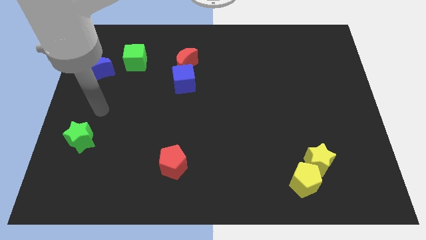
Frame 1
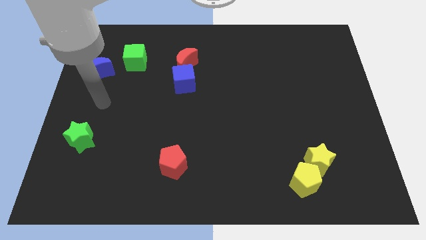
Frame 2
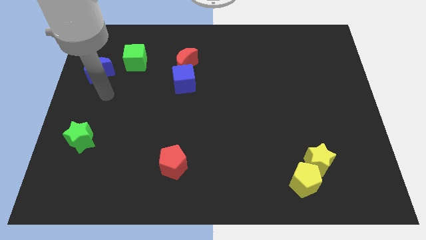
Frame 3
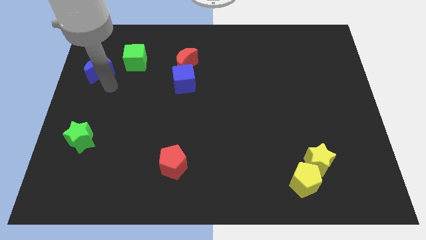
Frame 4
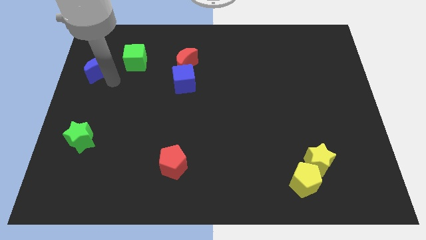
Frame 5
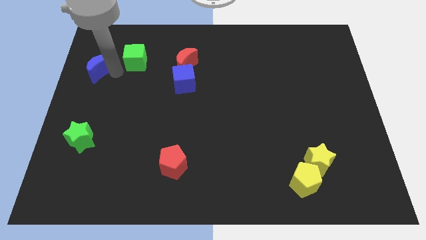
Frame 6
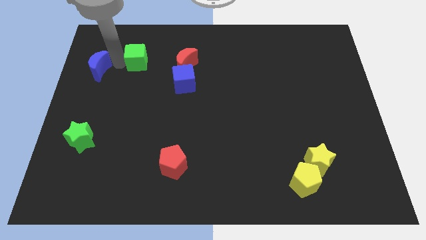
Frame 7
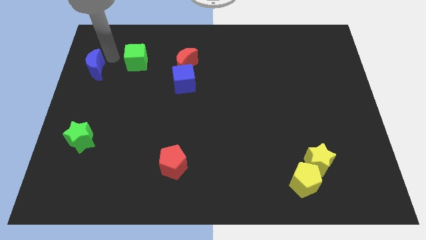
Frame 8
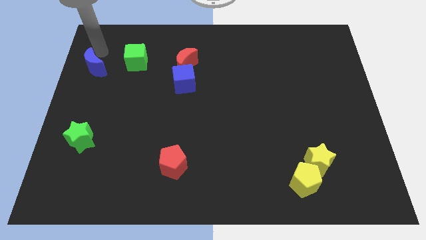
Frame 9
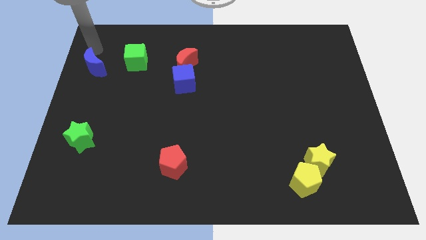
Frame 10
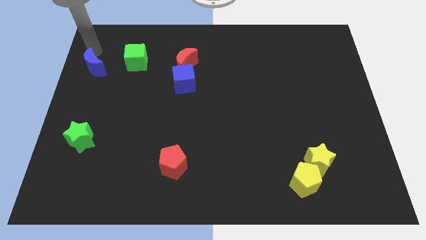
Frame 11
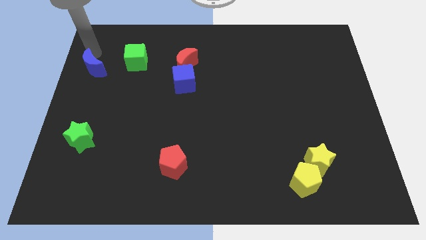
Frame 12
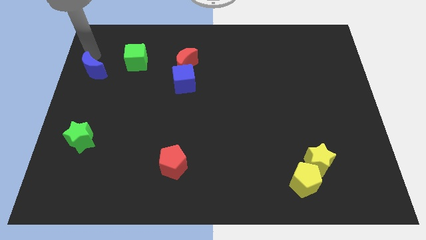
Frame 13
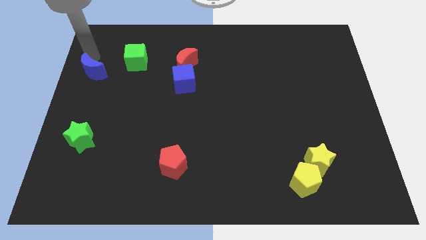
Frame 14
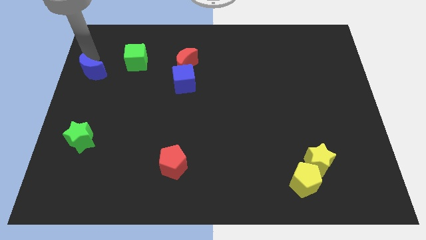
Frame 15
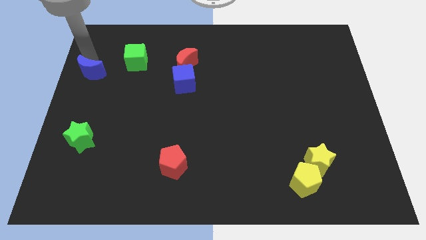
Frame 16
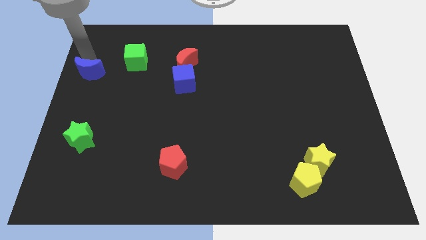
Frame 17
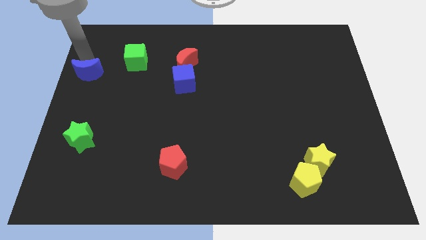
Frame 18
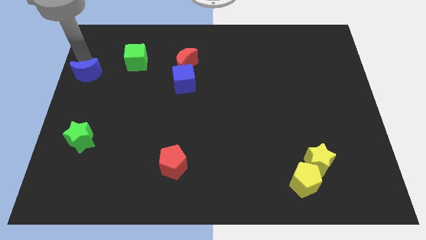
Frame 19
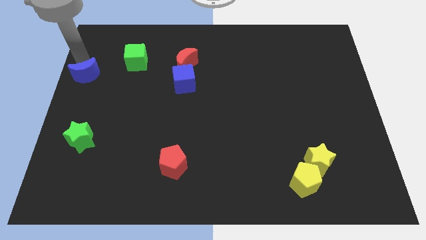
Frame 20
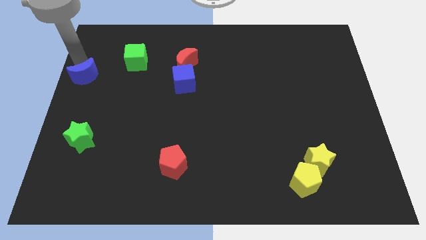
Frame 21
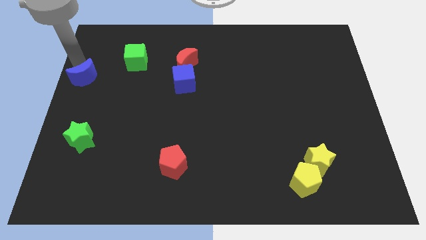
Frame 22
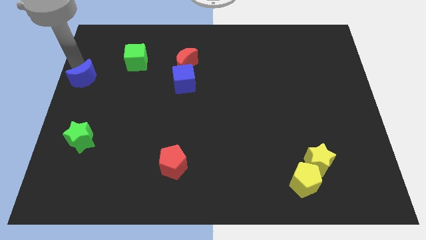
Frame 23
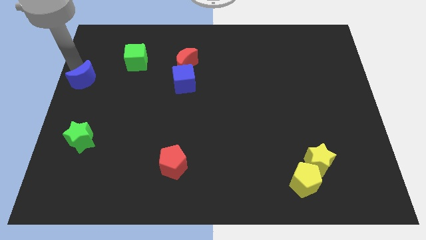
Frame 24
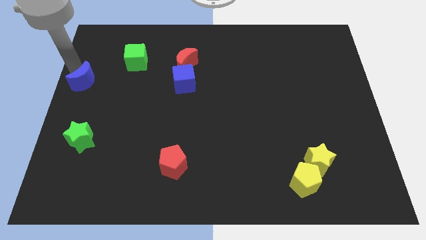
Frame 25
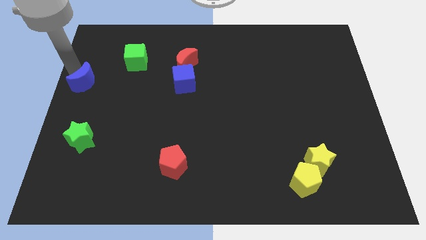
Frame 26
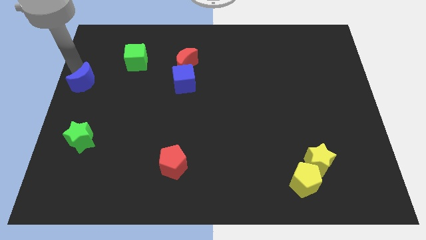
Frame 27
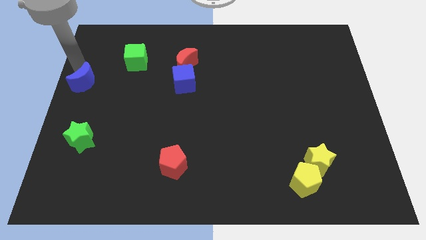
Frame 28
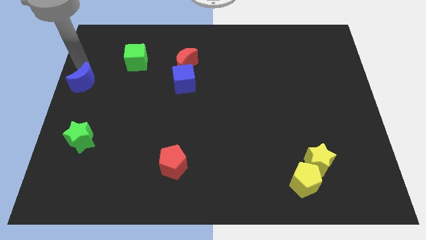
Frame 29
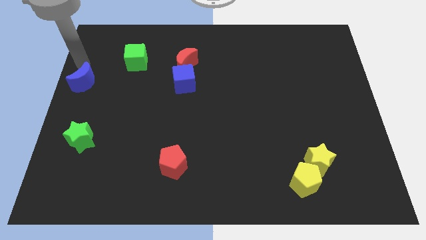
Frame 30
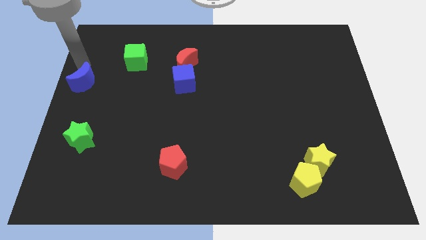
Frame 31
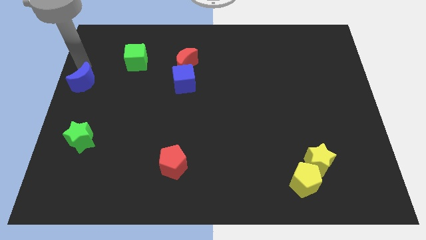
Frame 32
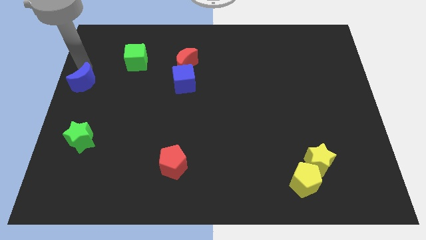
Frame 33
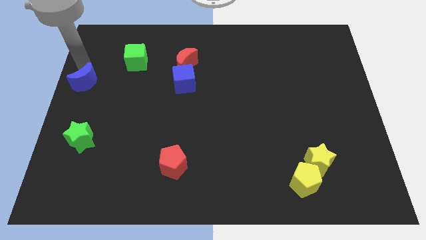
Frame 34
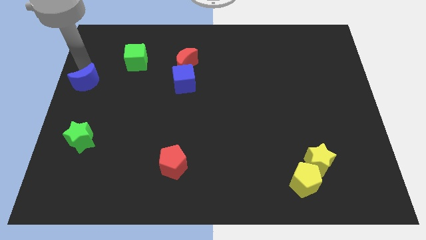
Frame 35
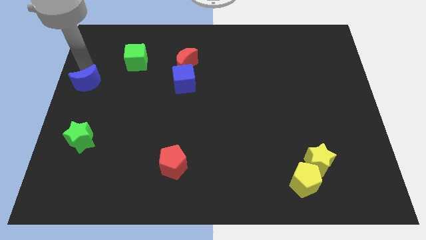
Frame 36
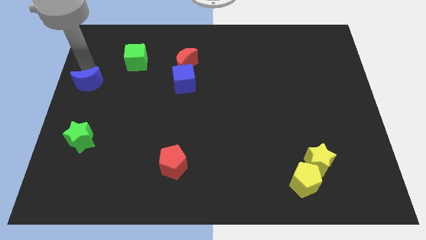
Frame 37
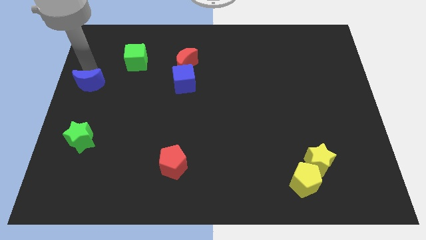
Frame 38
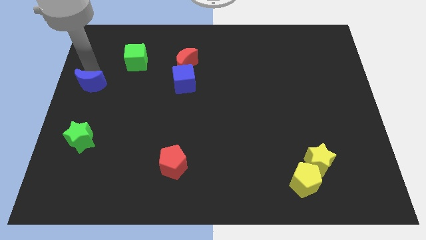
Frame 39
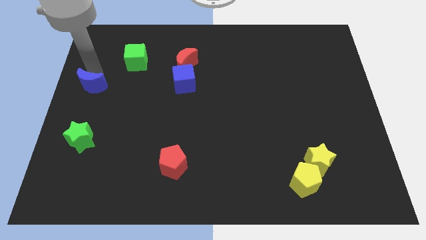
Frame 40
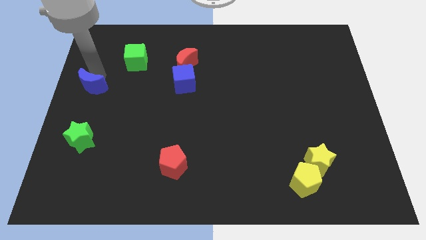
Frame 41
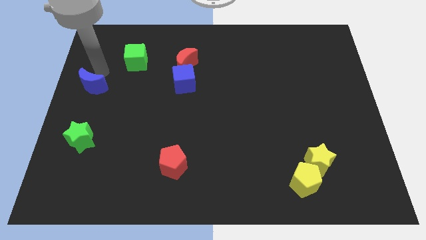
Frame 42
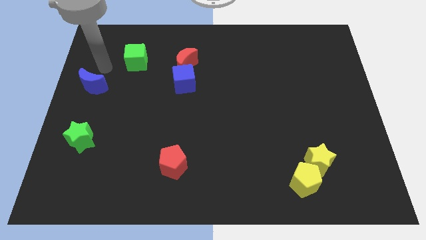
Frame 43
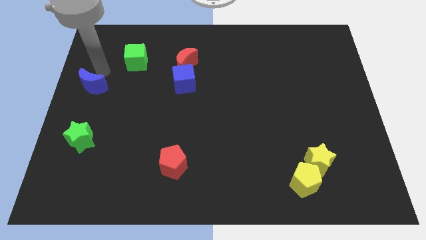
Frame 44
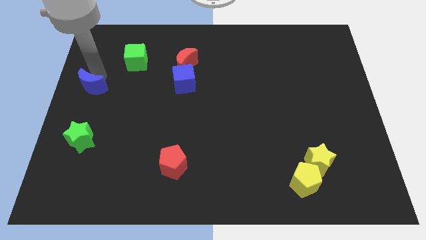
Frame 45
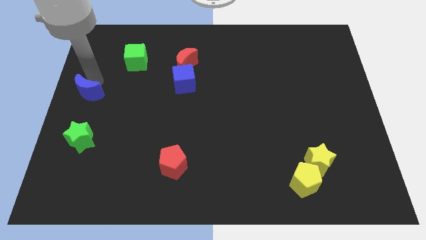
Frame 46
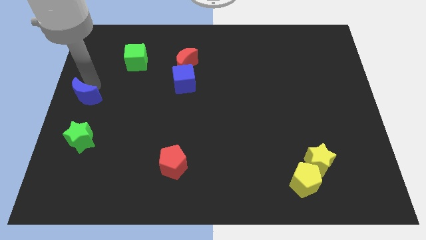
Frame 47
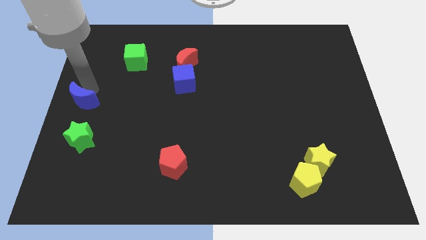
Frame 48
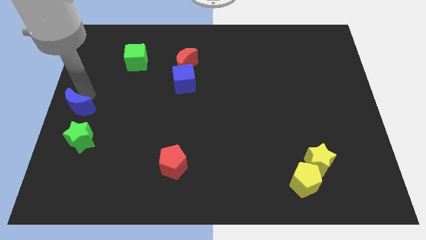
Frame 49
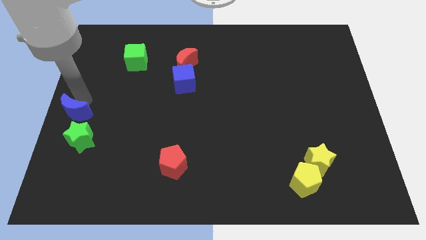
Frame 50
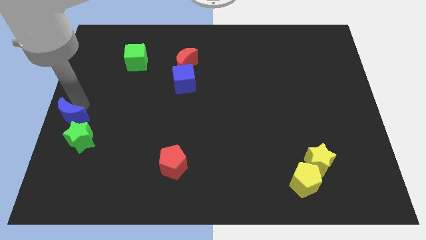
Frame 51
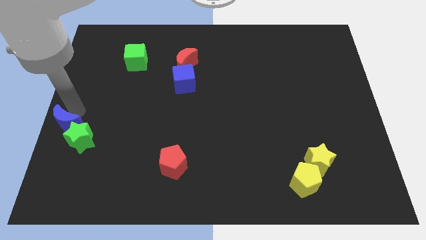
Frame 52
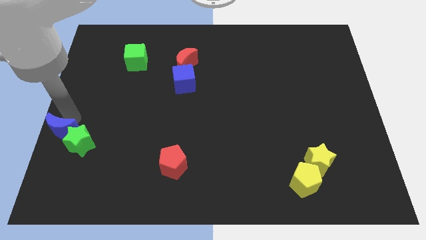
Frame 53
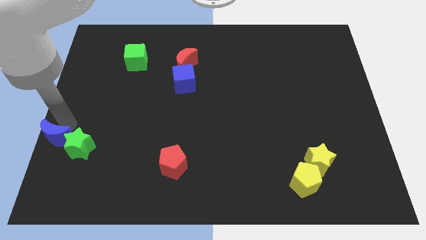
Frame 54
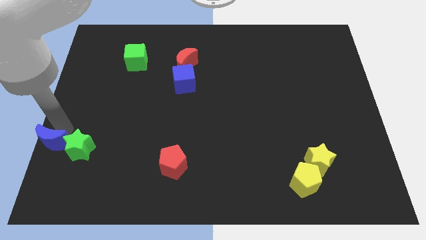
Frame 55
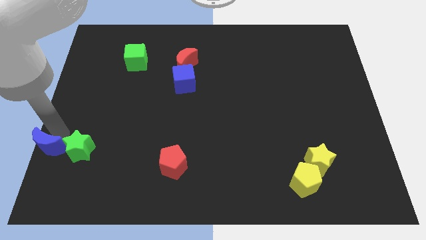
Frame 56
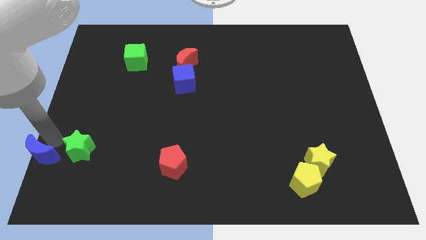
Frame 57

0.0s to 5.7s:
move the blue moon to the bottom left corner

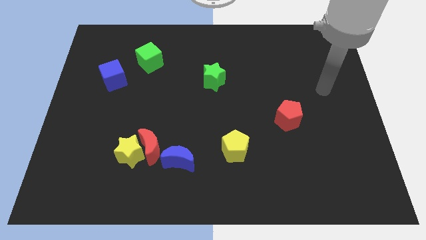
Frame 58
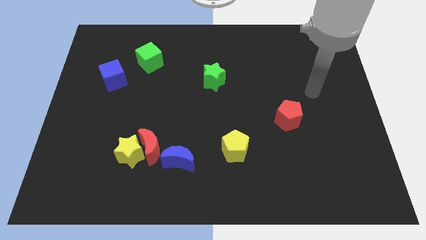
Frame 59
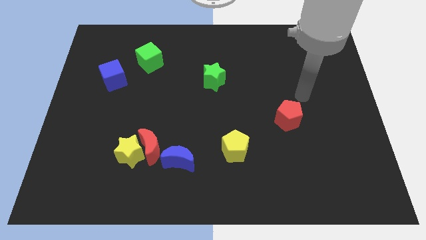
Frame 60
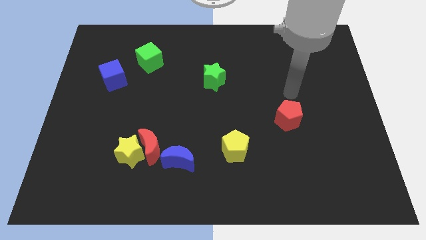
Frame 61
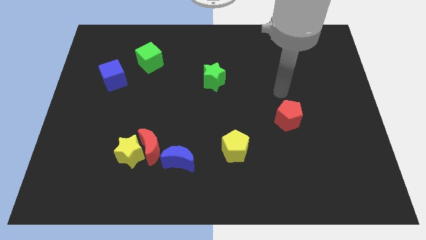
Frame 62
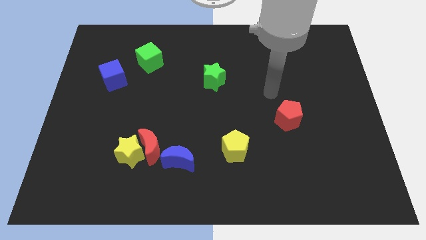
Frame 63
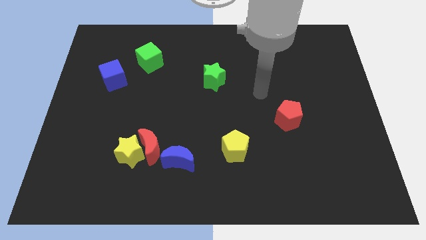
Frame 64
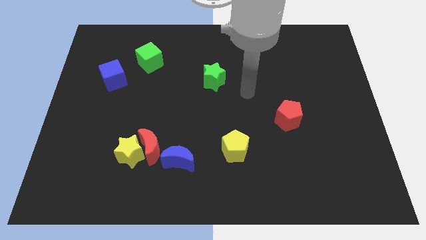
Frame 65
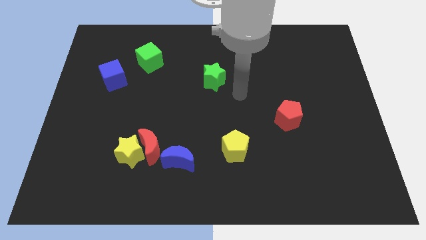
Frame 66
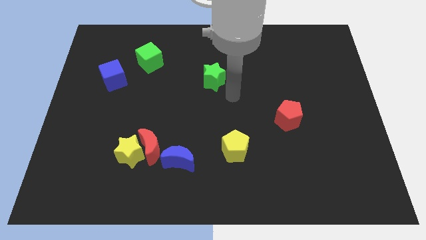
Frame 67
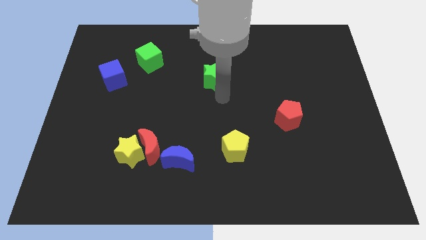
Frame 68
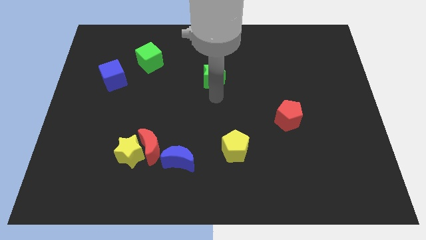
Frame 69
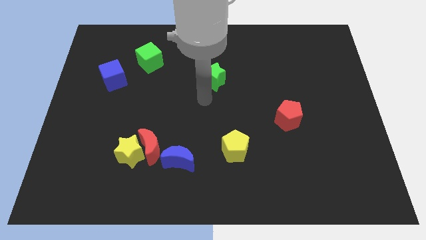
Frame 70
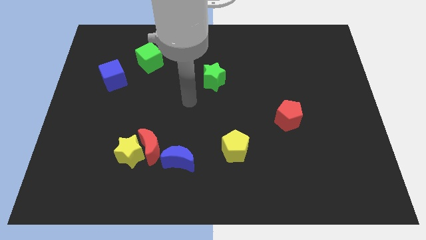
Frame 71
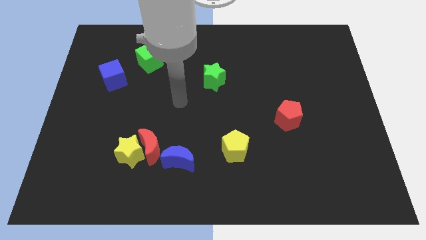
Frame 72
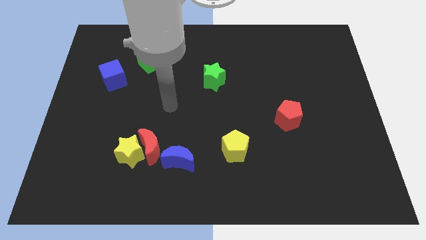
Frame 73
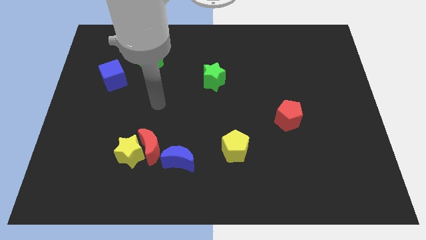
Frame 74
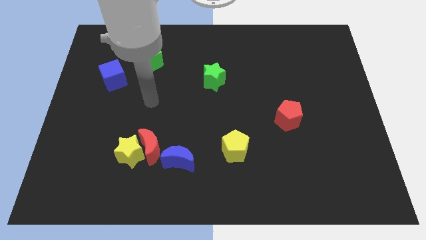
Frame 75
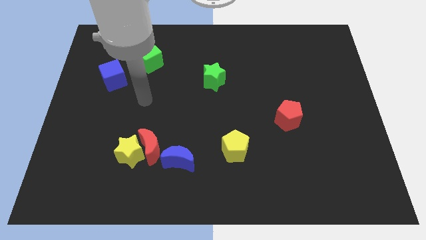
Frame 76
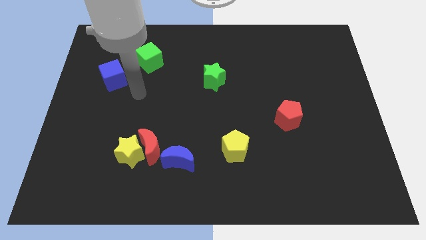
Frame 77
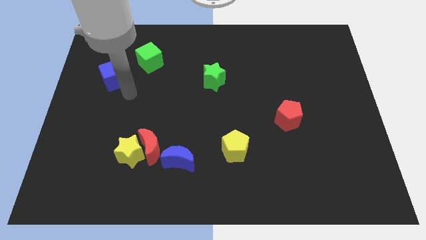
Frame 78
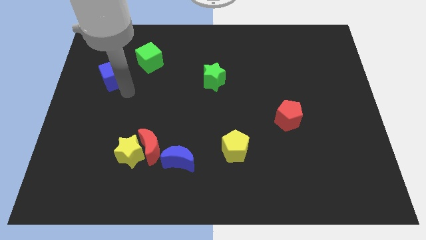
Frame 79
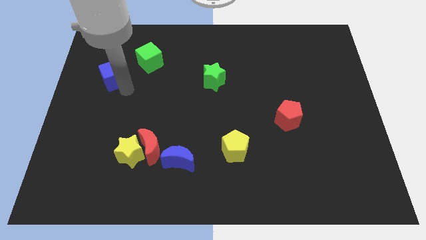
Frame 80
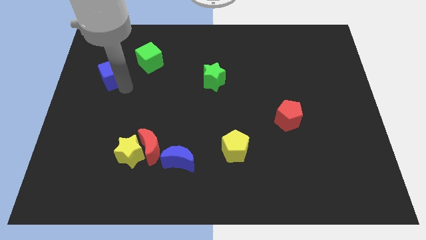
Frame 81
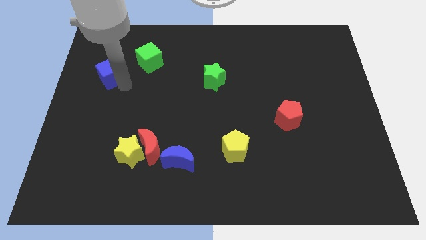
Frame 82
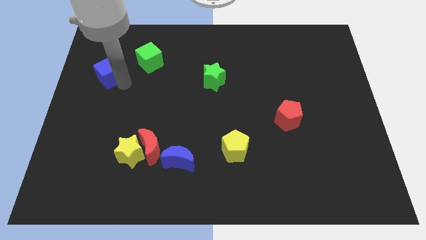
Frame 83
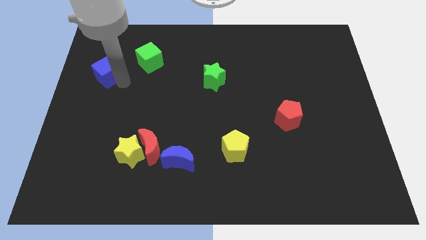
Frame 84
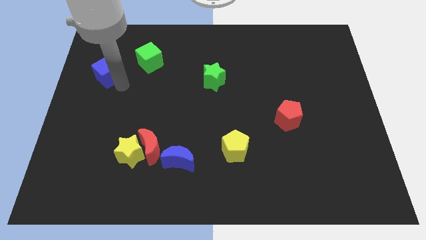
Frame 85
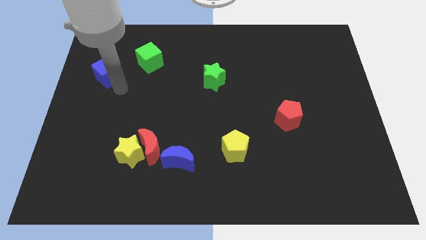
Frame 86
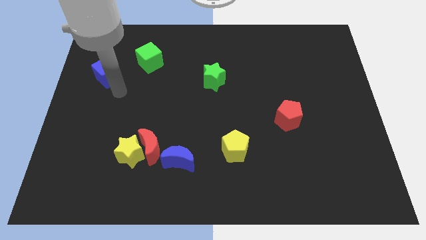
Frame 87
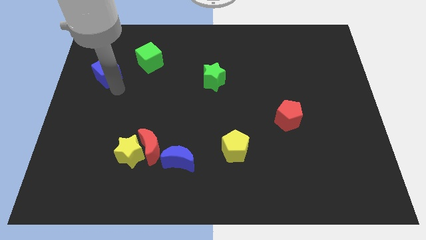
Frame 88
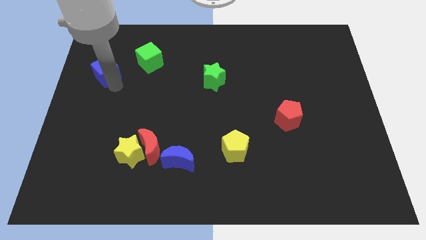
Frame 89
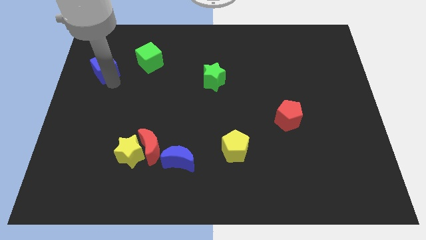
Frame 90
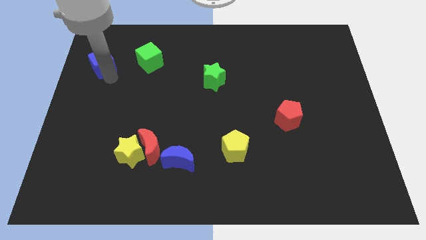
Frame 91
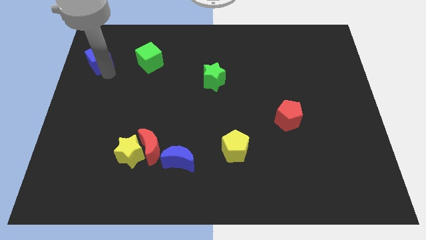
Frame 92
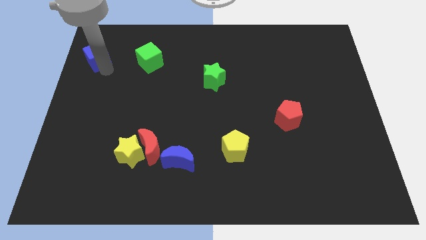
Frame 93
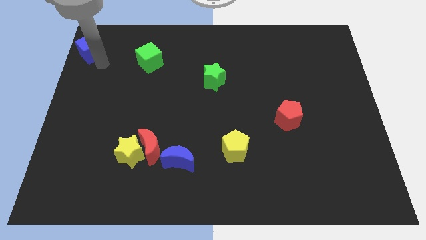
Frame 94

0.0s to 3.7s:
push the blue cube to the upper left corner
